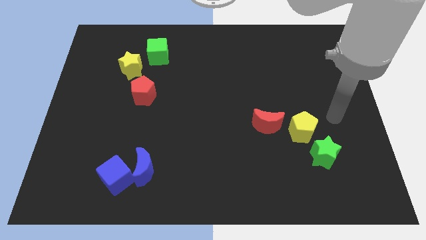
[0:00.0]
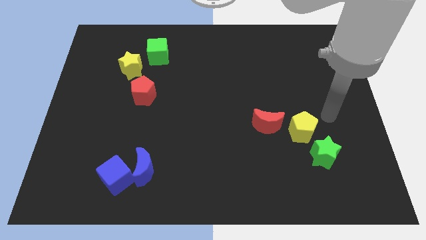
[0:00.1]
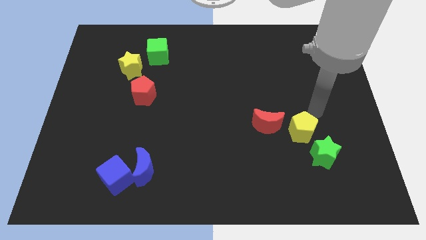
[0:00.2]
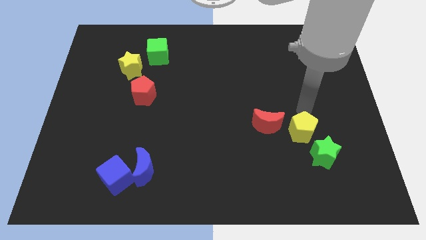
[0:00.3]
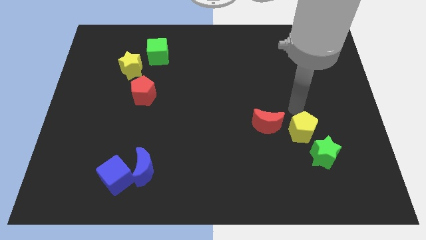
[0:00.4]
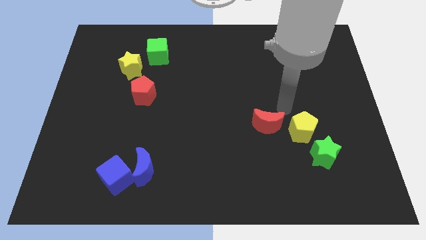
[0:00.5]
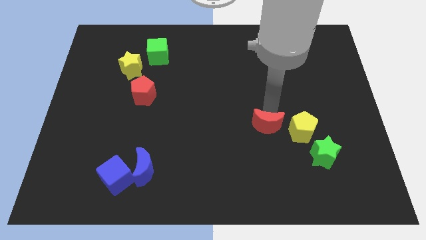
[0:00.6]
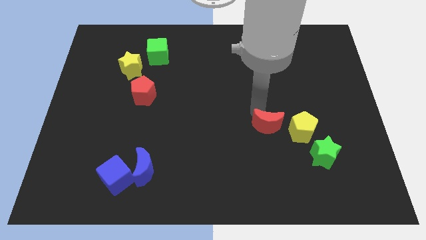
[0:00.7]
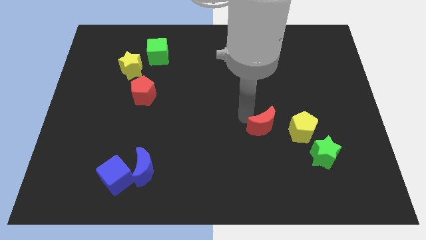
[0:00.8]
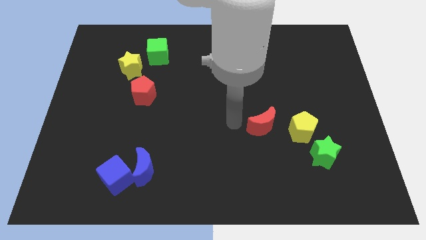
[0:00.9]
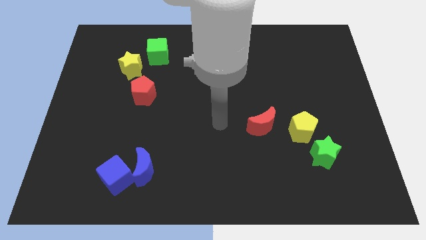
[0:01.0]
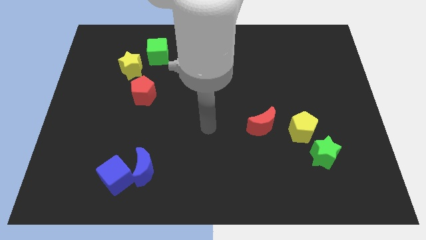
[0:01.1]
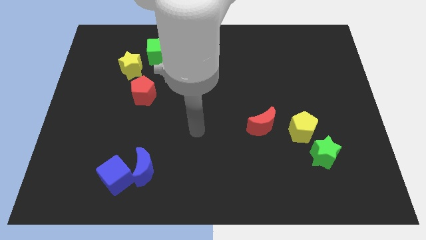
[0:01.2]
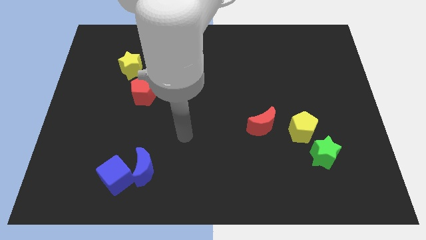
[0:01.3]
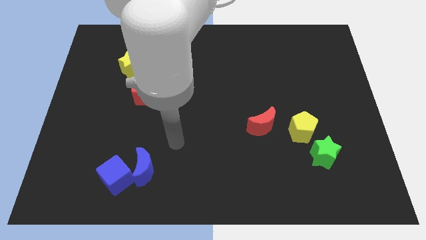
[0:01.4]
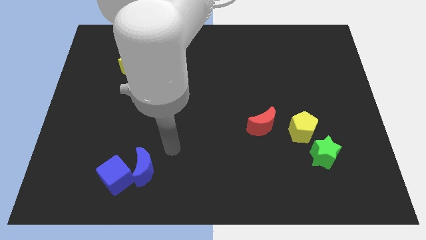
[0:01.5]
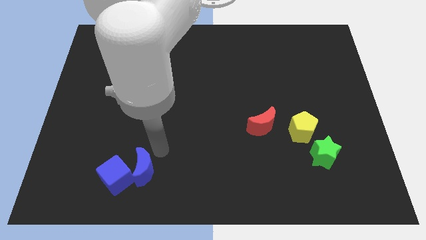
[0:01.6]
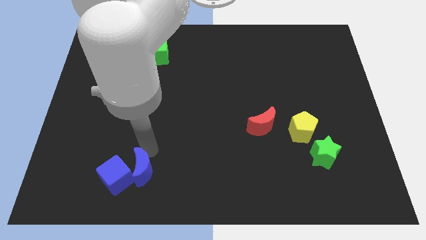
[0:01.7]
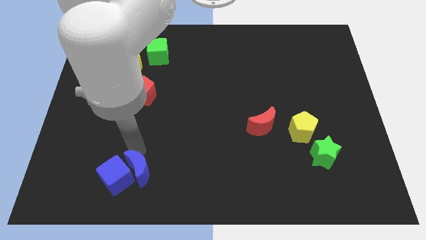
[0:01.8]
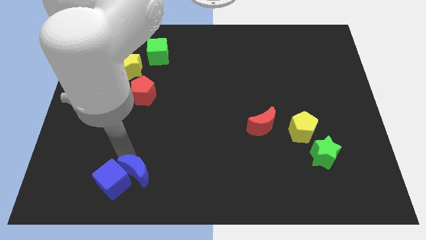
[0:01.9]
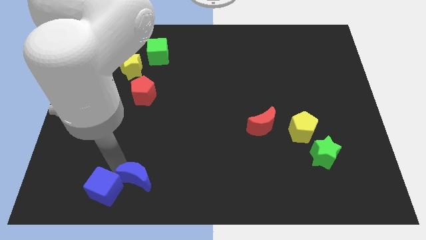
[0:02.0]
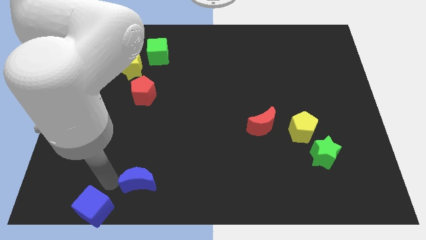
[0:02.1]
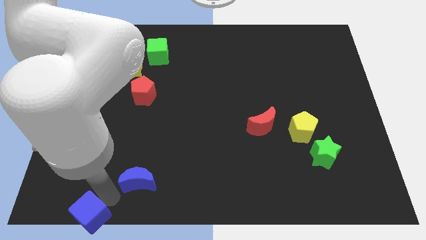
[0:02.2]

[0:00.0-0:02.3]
pull the blue moon apart from the blue cube

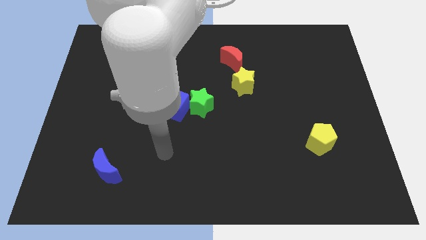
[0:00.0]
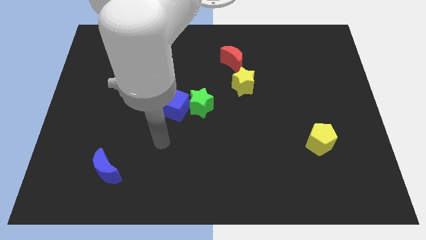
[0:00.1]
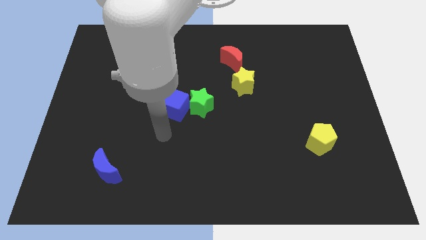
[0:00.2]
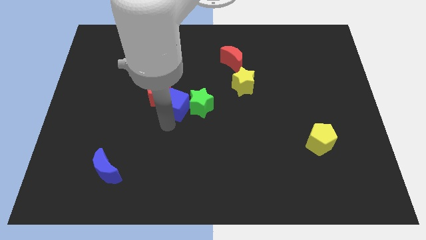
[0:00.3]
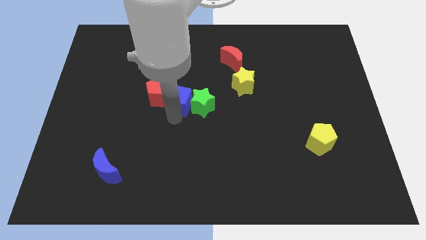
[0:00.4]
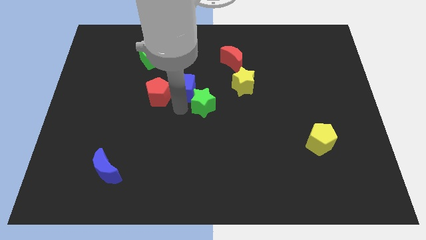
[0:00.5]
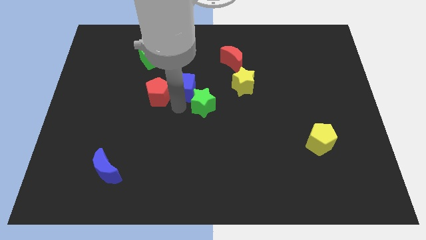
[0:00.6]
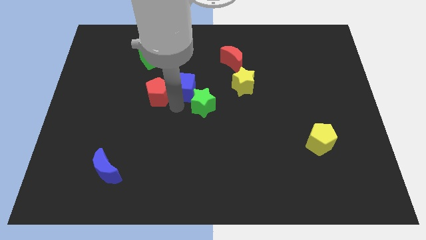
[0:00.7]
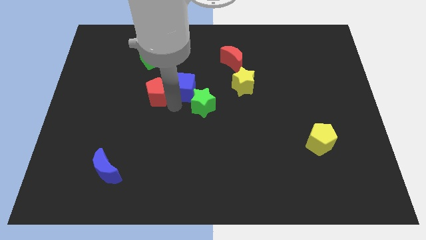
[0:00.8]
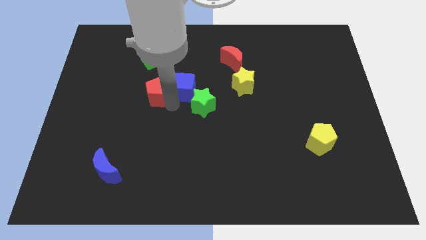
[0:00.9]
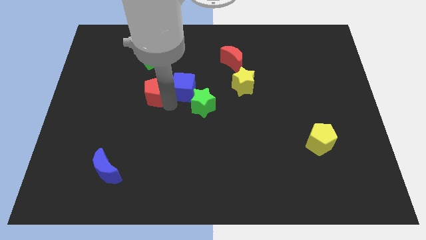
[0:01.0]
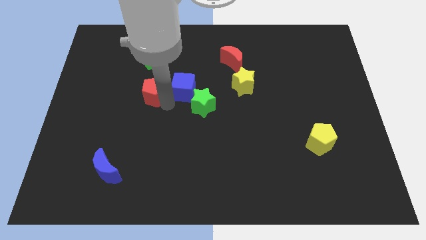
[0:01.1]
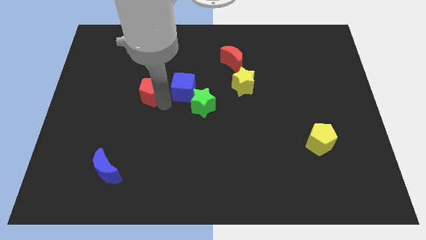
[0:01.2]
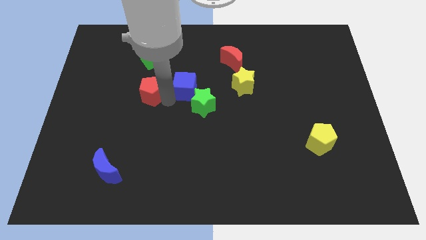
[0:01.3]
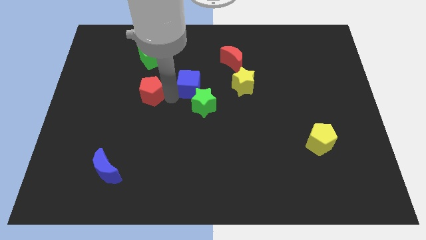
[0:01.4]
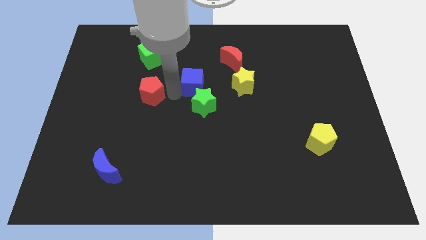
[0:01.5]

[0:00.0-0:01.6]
move the red pentagon away from the blue cube

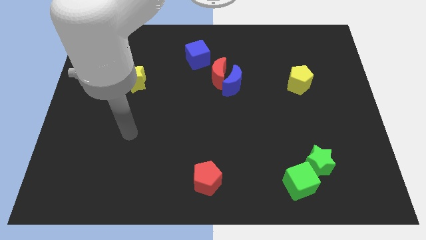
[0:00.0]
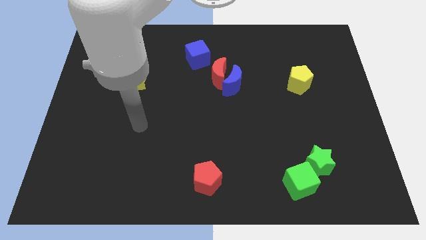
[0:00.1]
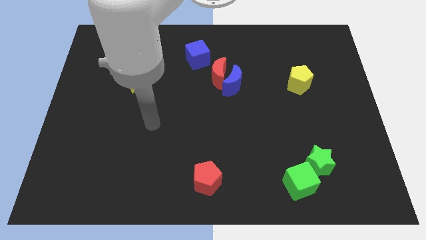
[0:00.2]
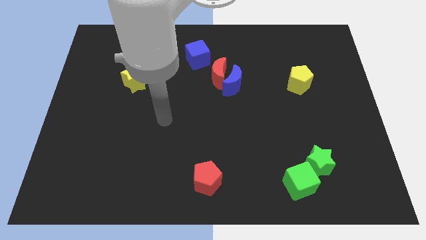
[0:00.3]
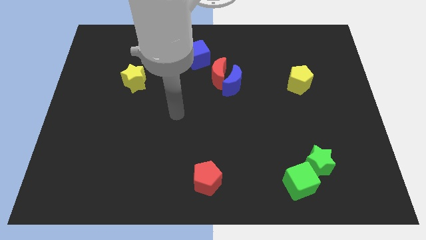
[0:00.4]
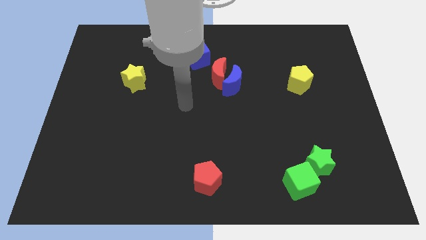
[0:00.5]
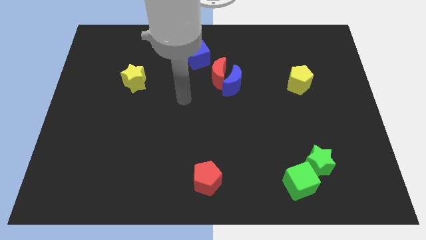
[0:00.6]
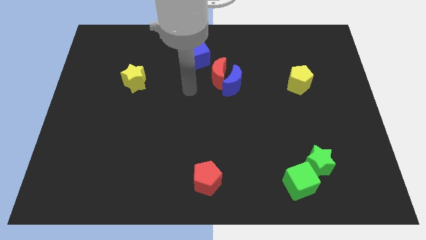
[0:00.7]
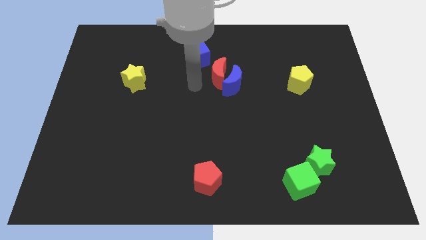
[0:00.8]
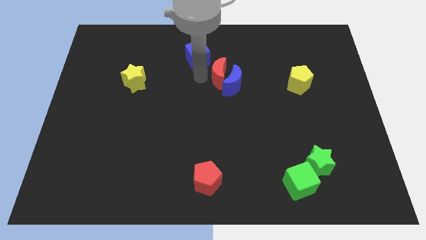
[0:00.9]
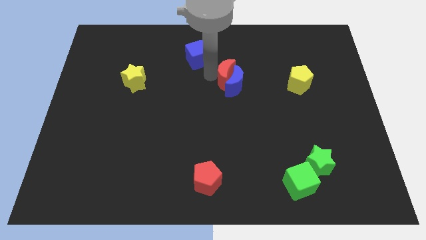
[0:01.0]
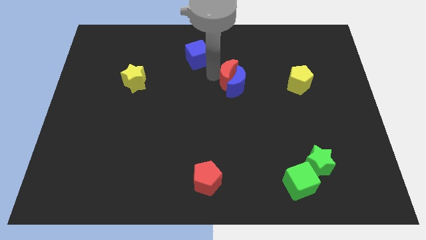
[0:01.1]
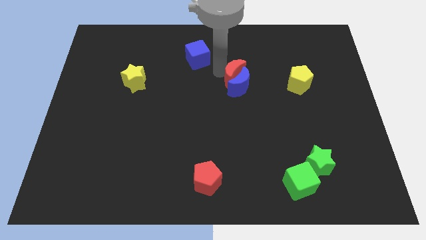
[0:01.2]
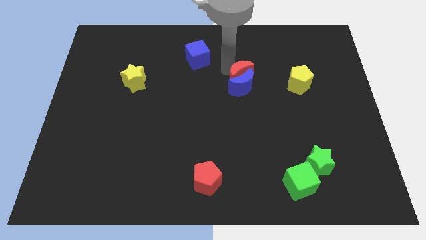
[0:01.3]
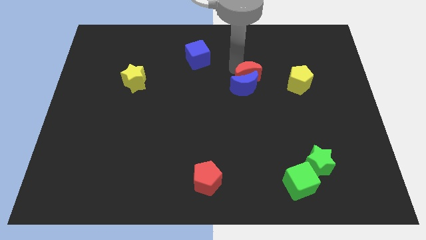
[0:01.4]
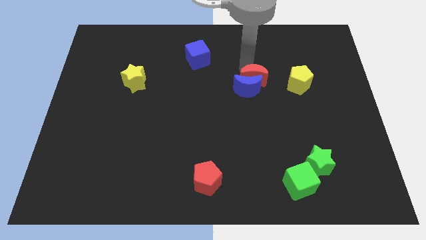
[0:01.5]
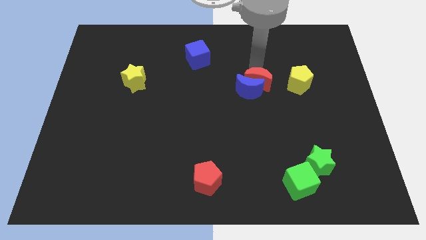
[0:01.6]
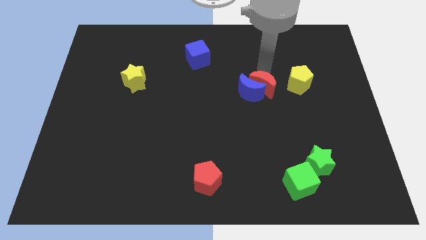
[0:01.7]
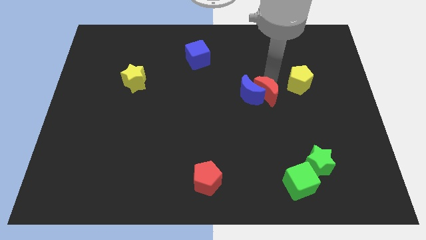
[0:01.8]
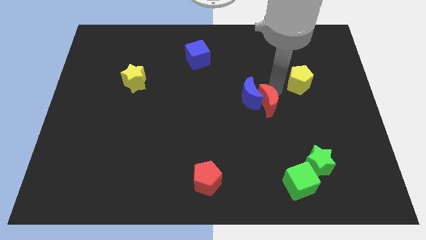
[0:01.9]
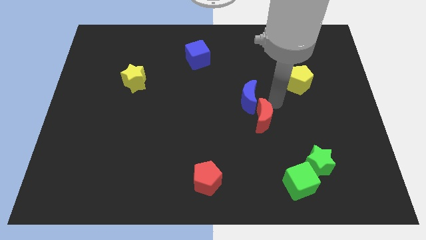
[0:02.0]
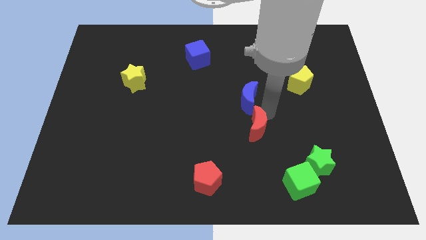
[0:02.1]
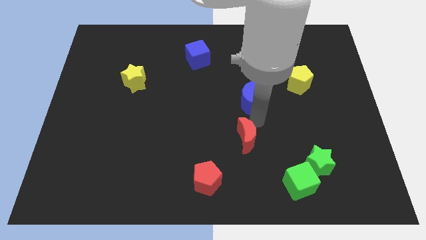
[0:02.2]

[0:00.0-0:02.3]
move the blue moon away from the red moon

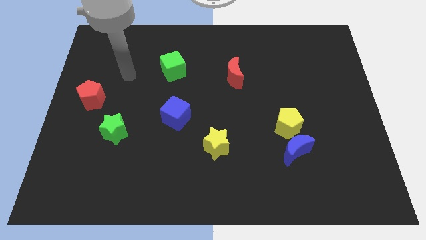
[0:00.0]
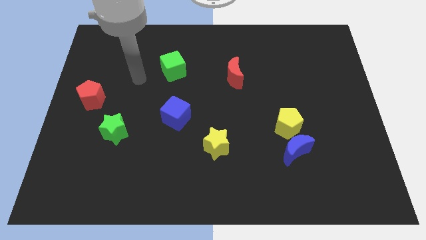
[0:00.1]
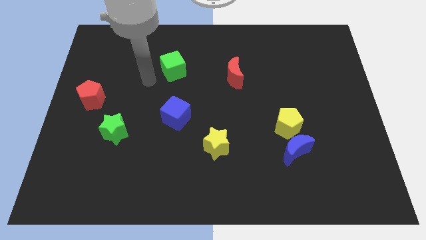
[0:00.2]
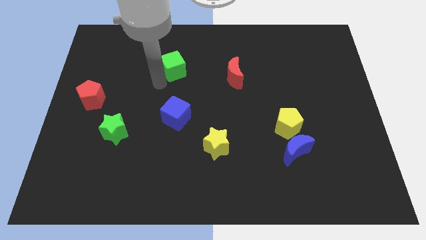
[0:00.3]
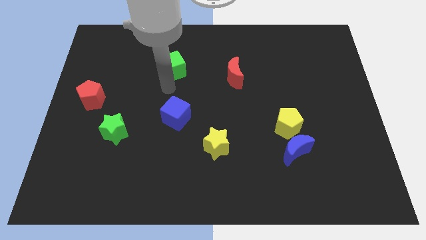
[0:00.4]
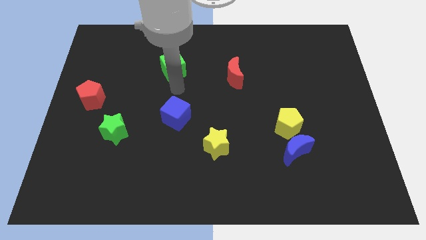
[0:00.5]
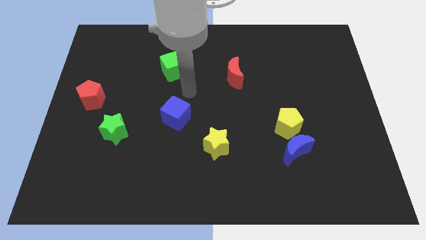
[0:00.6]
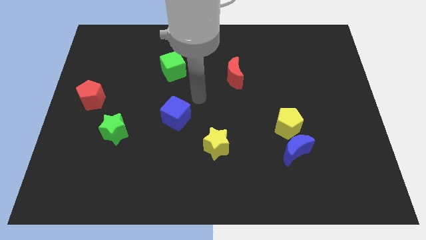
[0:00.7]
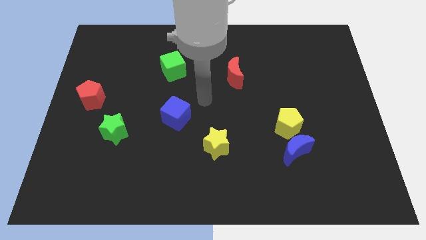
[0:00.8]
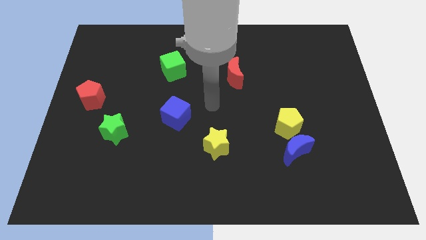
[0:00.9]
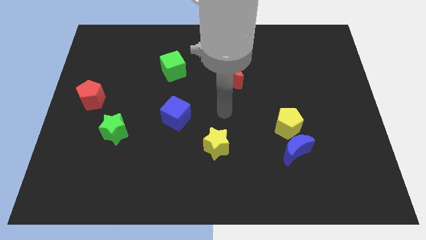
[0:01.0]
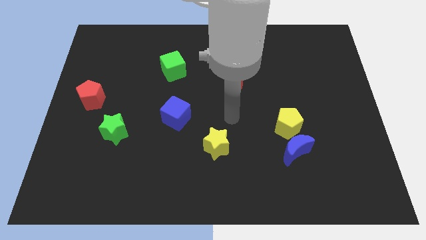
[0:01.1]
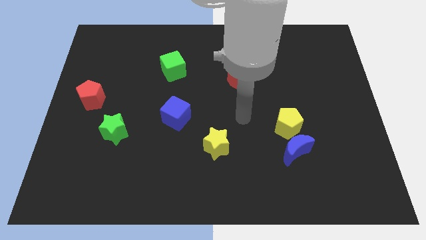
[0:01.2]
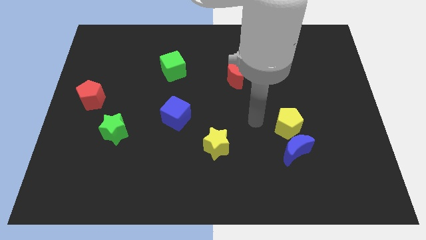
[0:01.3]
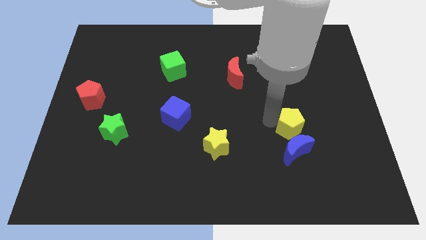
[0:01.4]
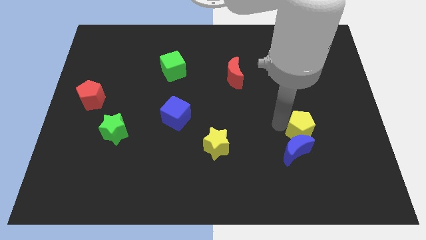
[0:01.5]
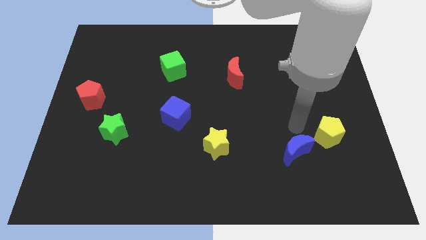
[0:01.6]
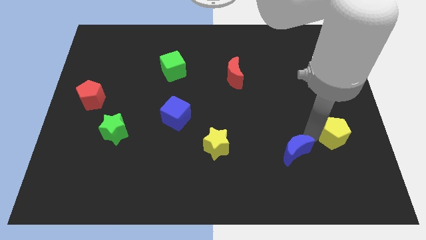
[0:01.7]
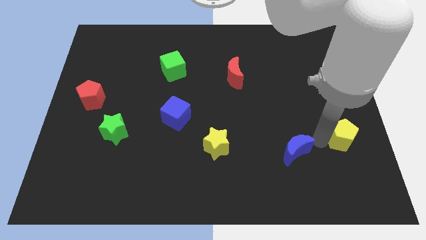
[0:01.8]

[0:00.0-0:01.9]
separate the blue moon from the yellow pentagon

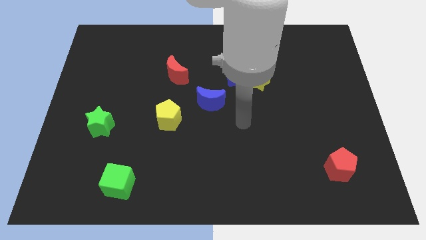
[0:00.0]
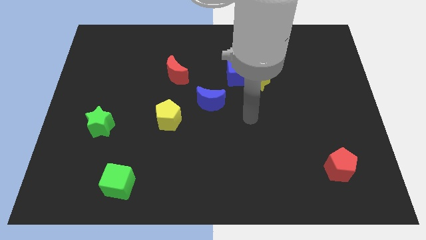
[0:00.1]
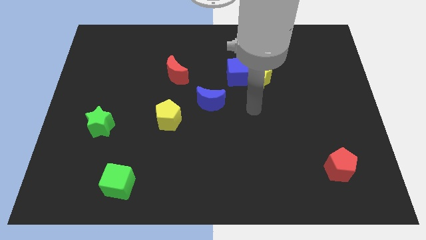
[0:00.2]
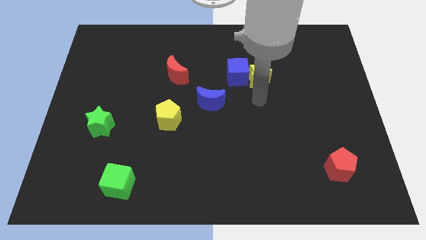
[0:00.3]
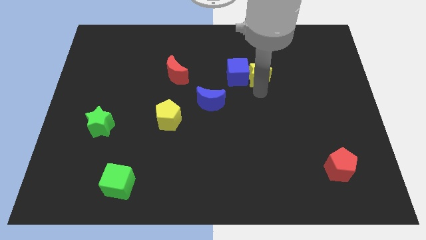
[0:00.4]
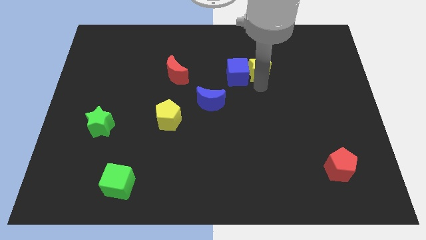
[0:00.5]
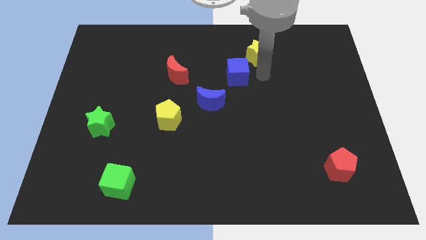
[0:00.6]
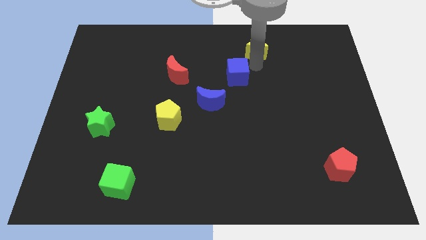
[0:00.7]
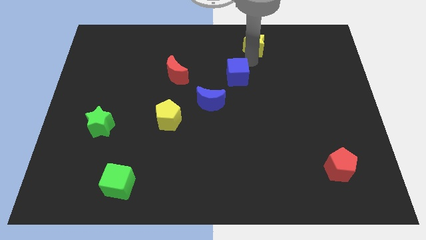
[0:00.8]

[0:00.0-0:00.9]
pull the blue cube apart from the yellow star

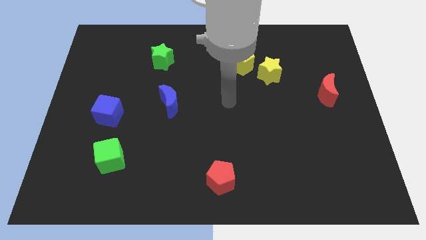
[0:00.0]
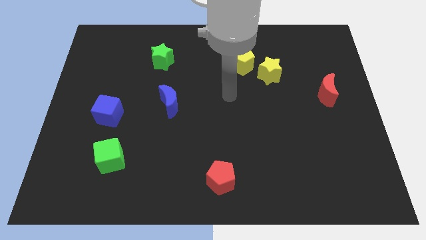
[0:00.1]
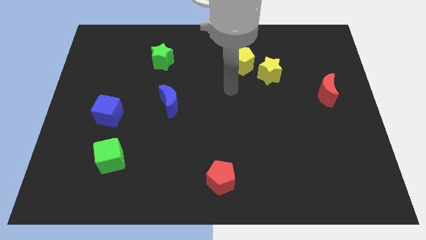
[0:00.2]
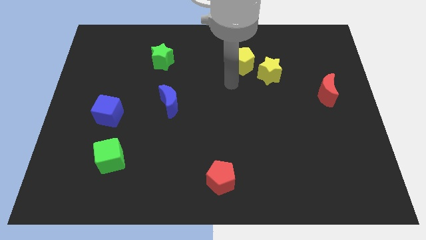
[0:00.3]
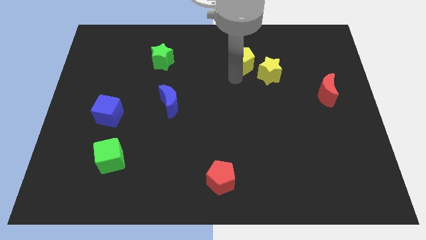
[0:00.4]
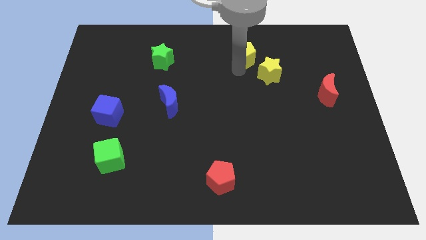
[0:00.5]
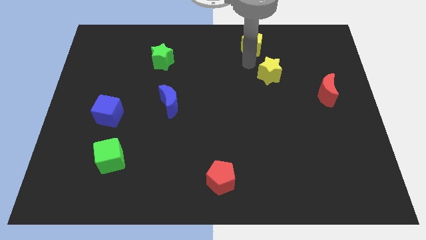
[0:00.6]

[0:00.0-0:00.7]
move the yellow star away from the yellow pentagon
